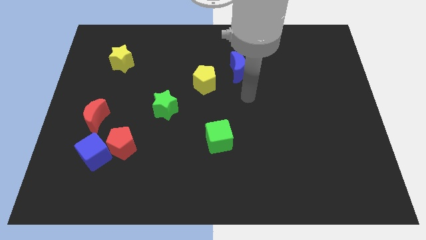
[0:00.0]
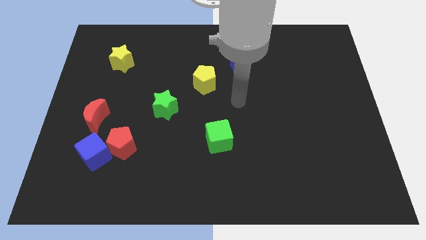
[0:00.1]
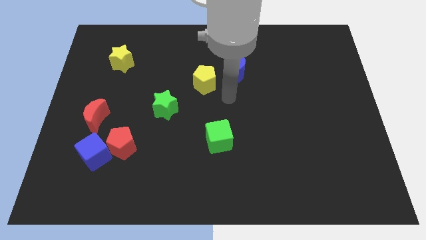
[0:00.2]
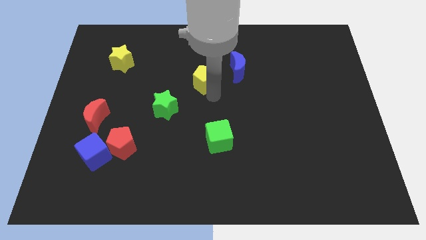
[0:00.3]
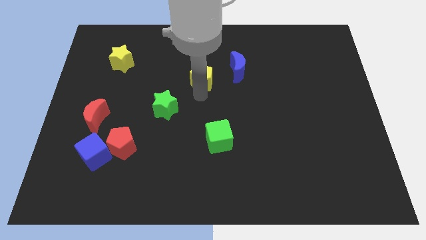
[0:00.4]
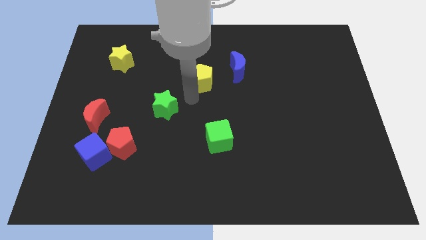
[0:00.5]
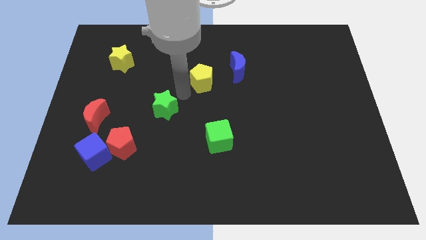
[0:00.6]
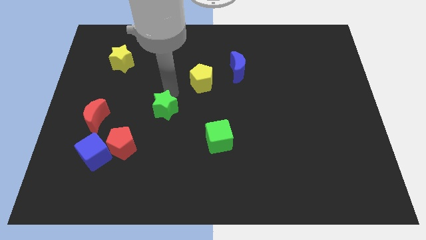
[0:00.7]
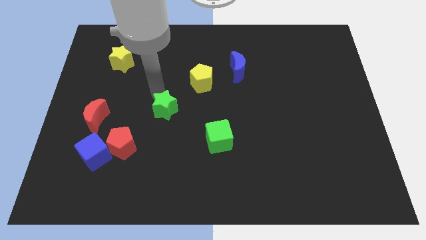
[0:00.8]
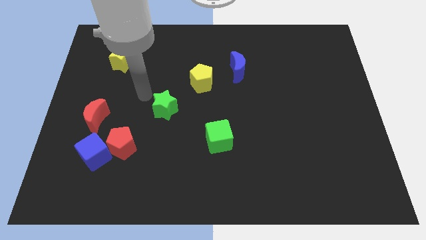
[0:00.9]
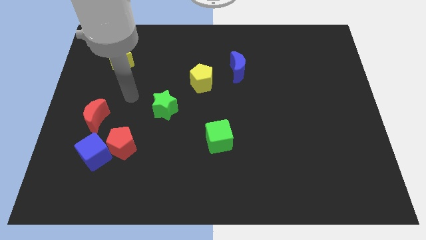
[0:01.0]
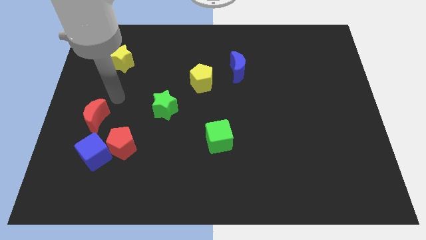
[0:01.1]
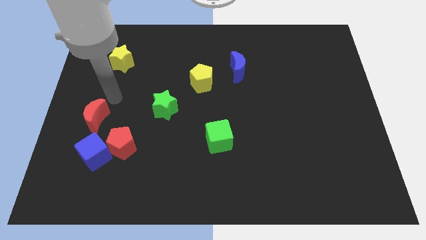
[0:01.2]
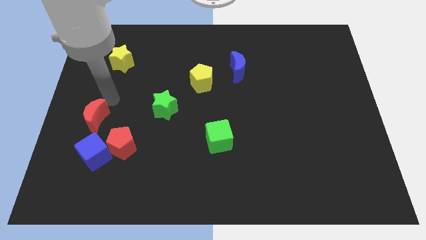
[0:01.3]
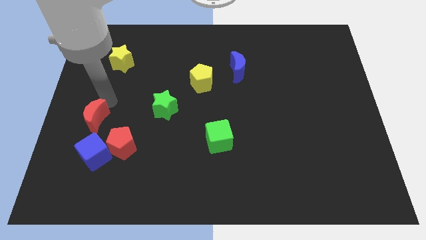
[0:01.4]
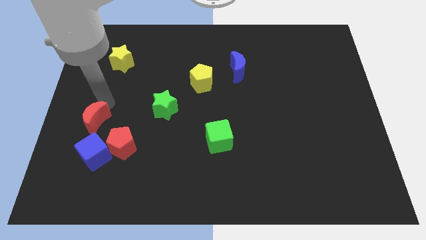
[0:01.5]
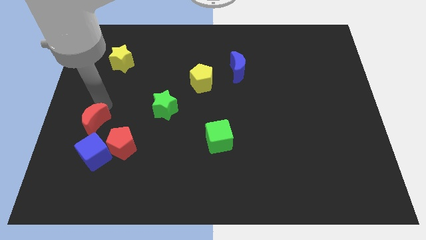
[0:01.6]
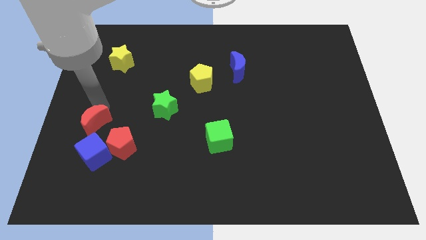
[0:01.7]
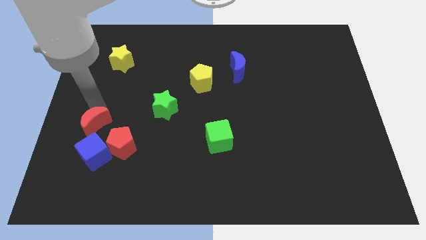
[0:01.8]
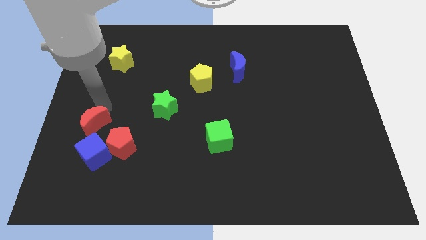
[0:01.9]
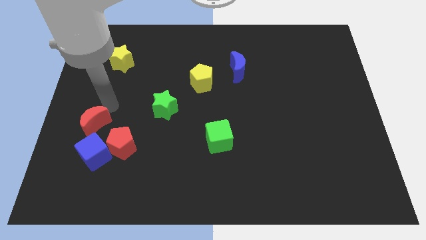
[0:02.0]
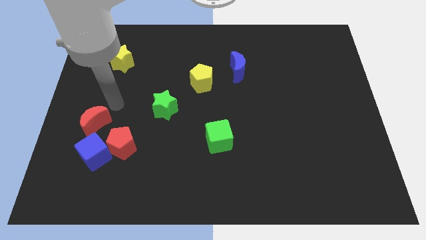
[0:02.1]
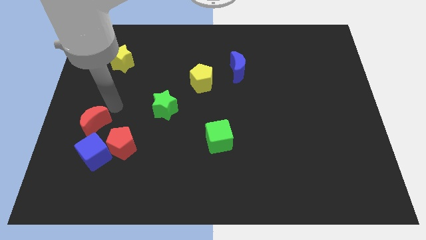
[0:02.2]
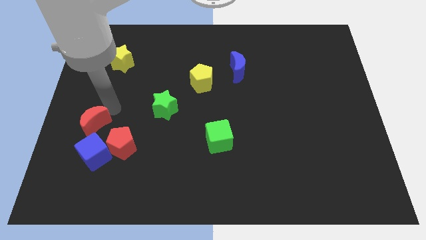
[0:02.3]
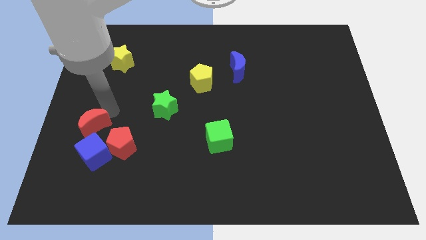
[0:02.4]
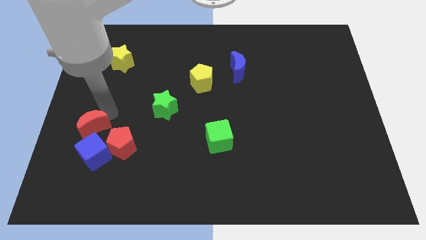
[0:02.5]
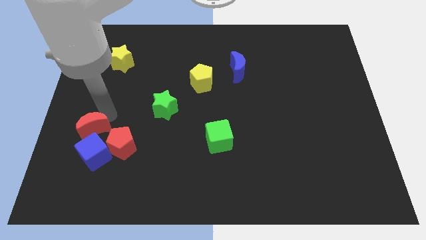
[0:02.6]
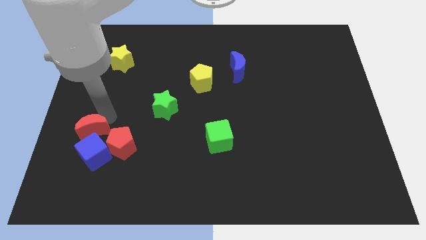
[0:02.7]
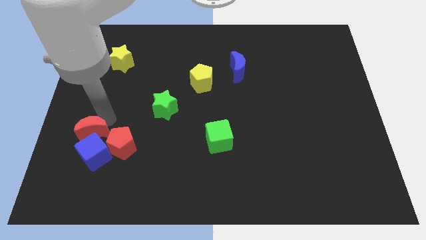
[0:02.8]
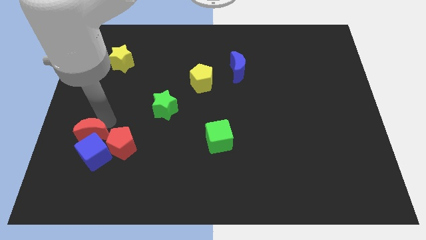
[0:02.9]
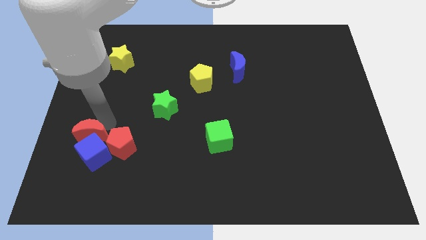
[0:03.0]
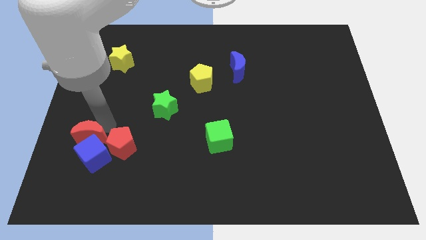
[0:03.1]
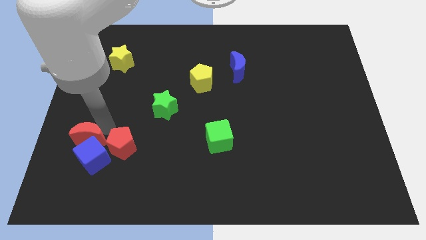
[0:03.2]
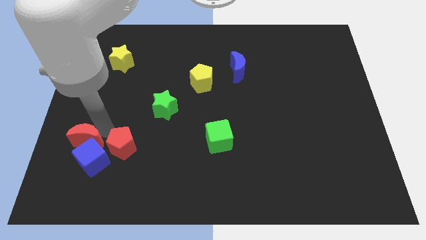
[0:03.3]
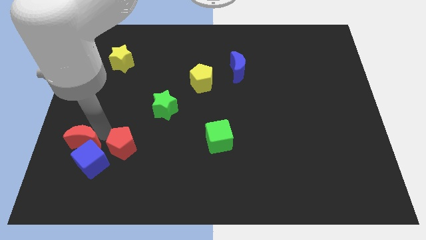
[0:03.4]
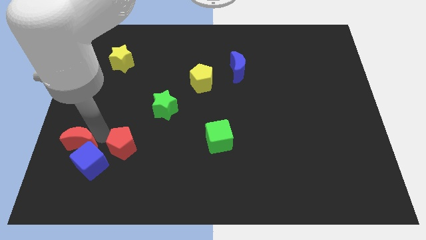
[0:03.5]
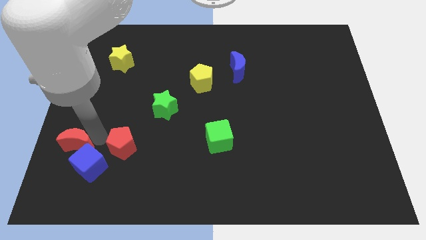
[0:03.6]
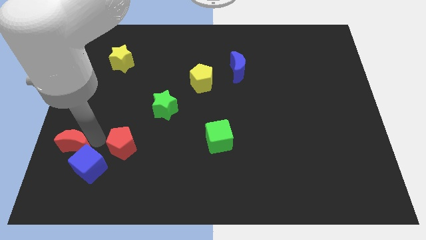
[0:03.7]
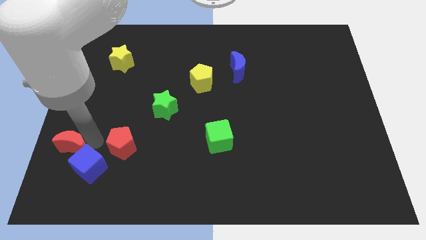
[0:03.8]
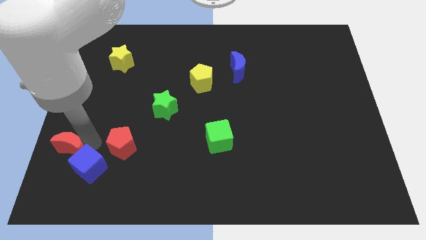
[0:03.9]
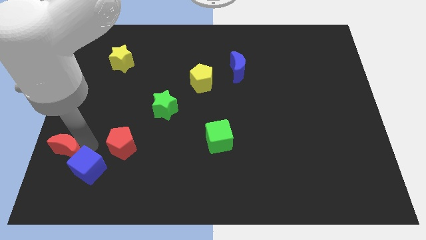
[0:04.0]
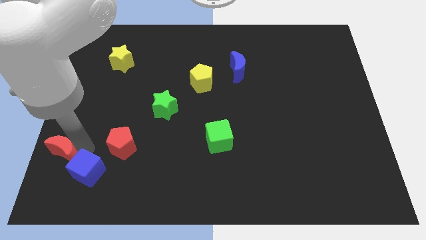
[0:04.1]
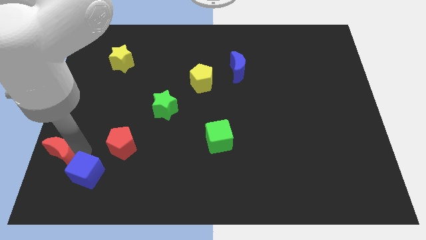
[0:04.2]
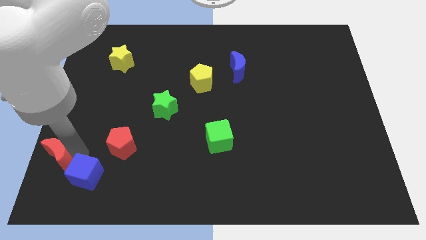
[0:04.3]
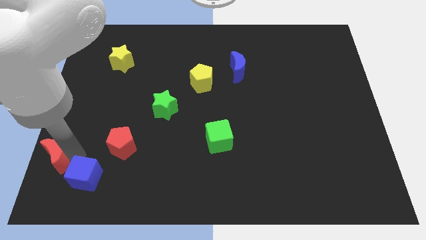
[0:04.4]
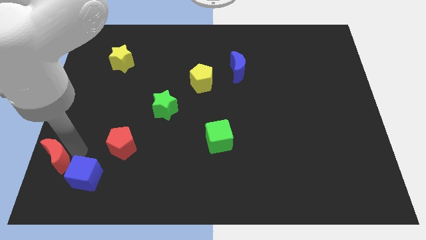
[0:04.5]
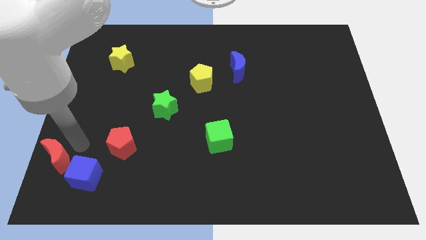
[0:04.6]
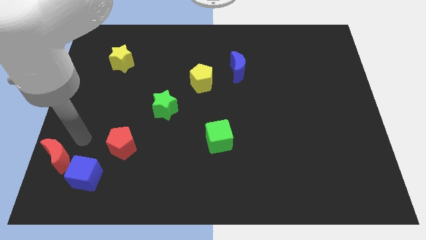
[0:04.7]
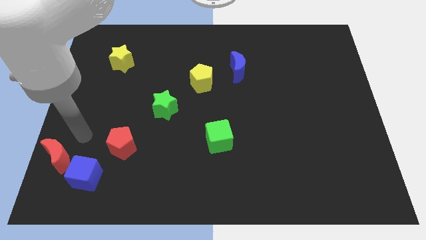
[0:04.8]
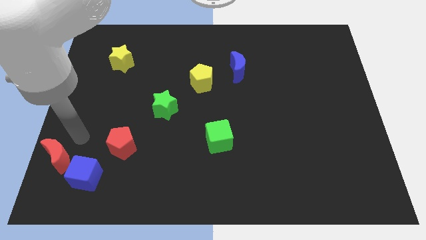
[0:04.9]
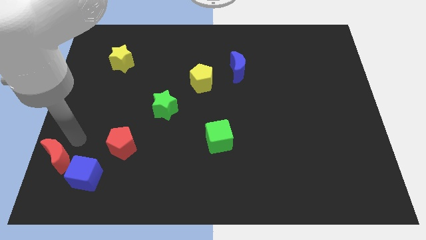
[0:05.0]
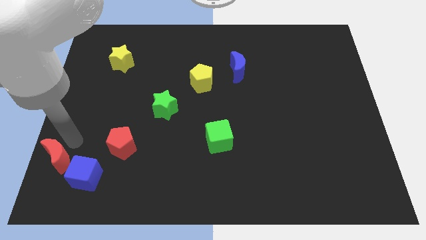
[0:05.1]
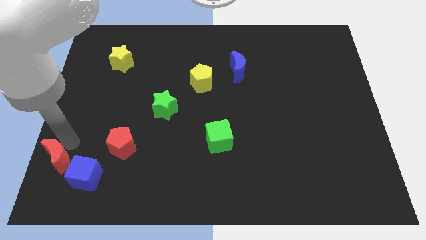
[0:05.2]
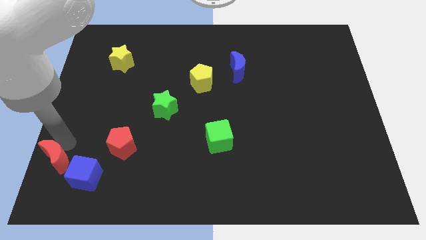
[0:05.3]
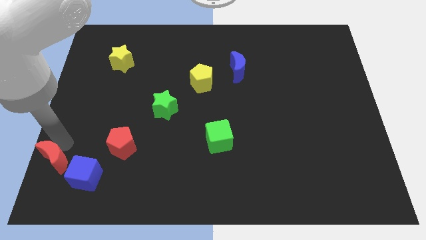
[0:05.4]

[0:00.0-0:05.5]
put the red moon to the bottom left corner
